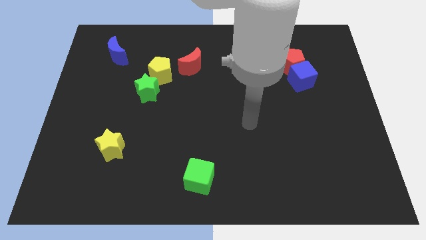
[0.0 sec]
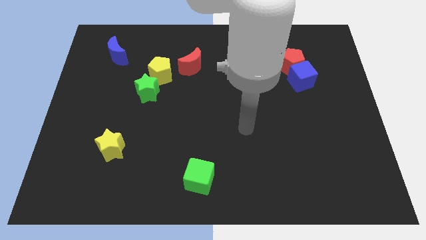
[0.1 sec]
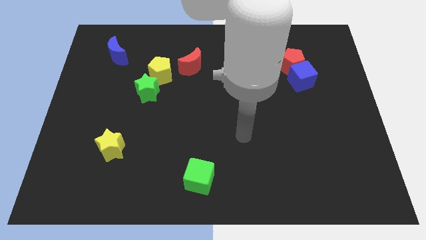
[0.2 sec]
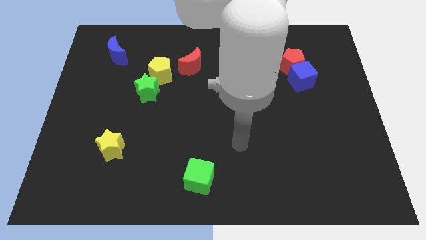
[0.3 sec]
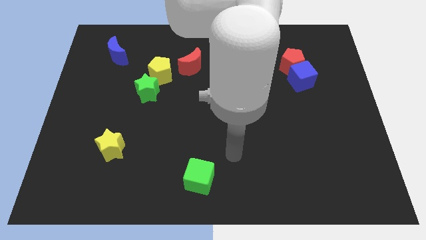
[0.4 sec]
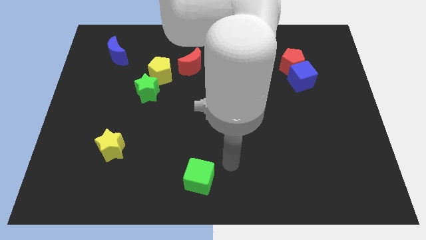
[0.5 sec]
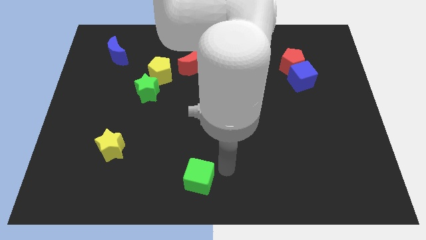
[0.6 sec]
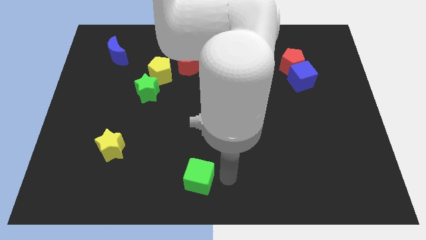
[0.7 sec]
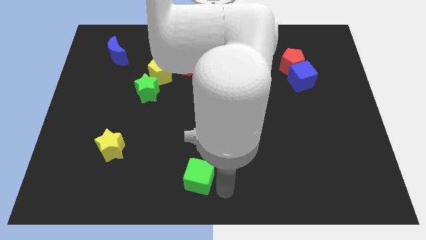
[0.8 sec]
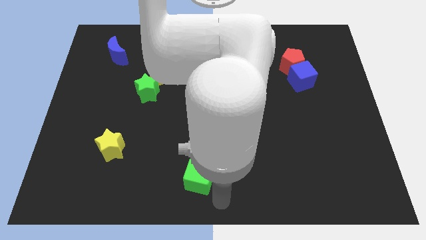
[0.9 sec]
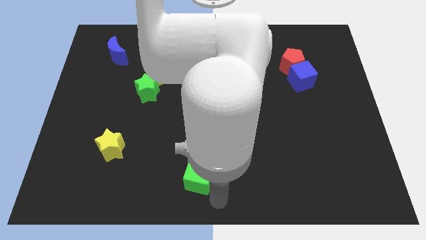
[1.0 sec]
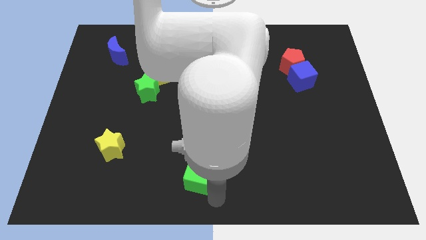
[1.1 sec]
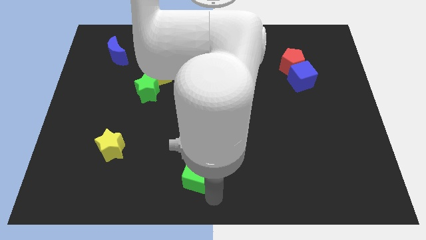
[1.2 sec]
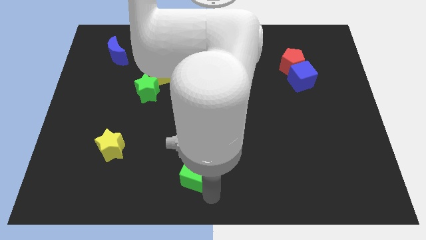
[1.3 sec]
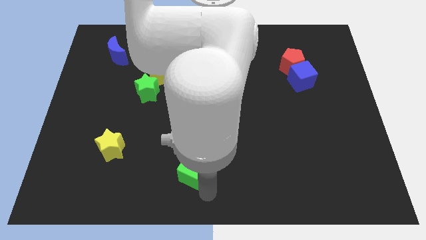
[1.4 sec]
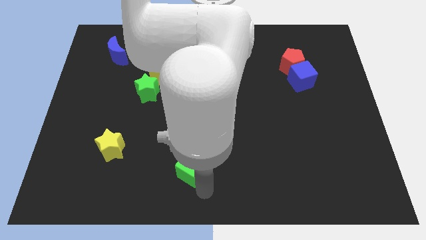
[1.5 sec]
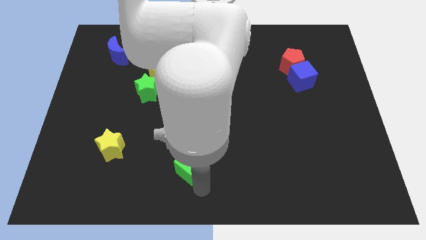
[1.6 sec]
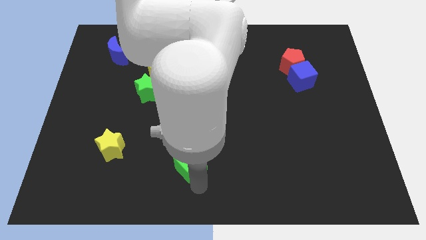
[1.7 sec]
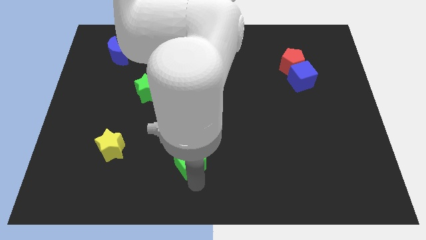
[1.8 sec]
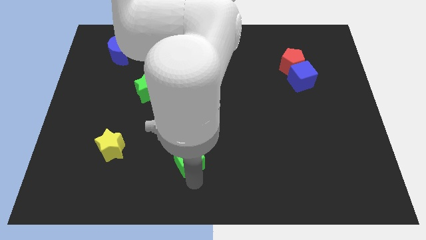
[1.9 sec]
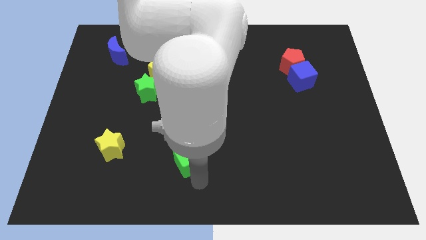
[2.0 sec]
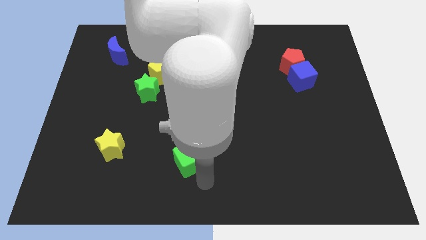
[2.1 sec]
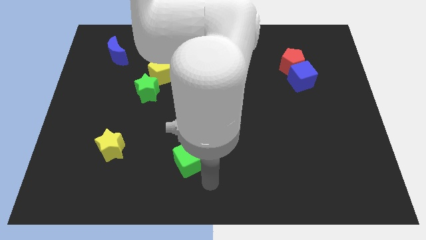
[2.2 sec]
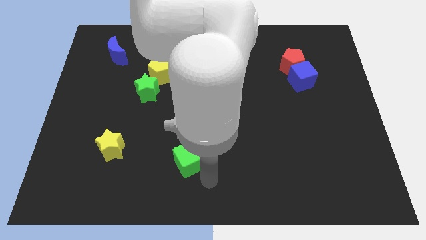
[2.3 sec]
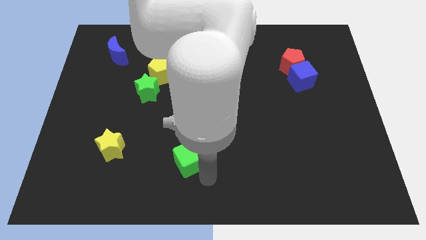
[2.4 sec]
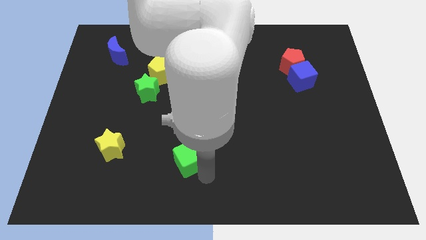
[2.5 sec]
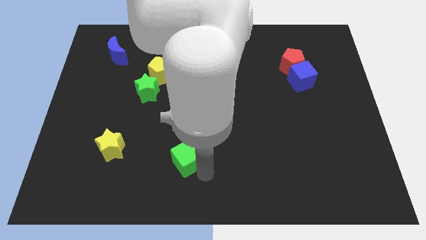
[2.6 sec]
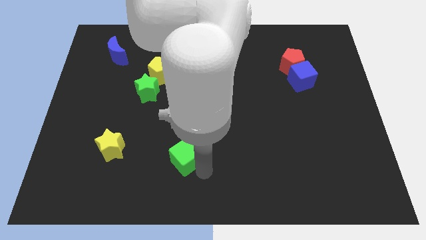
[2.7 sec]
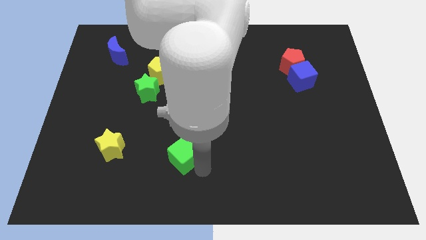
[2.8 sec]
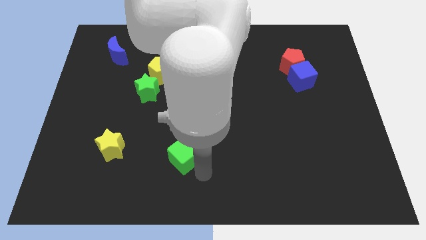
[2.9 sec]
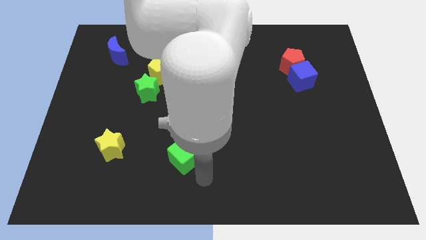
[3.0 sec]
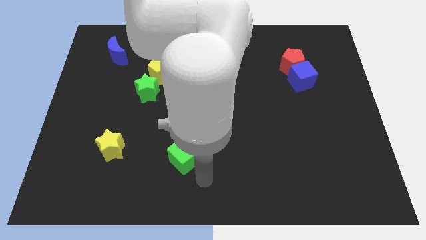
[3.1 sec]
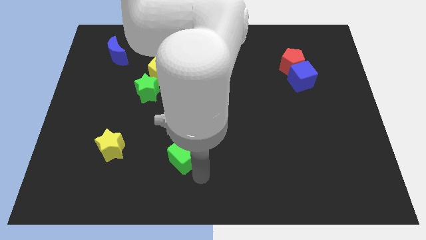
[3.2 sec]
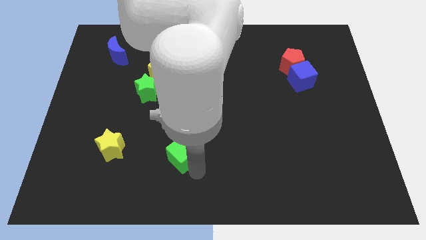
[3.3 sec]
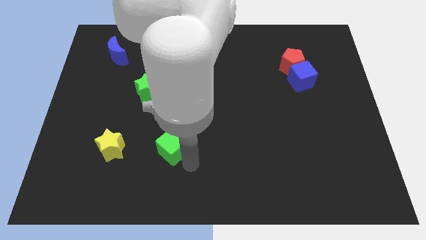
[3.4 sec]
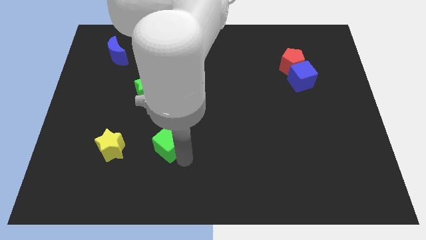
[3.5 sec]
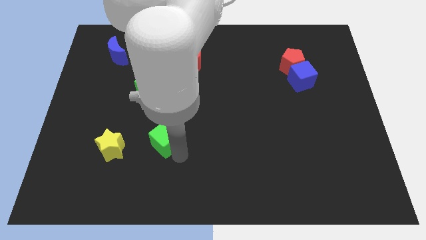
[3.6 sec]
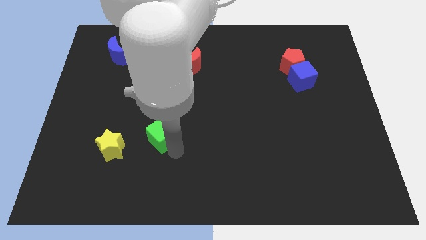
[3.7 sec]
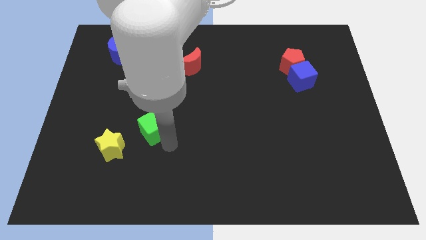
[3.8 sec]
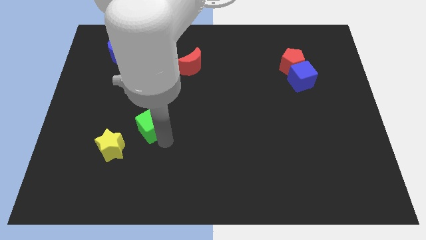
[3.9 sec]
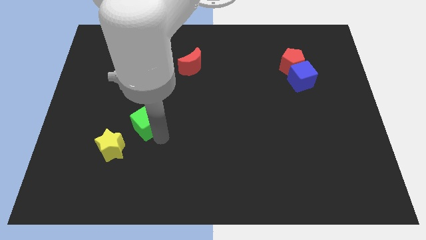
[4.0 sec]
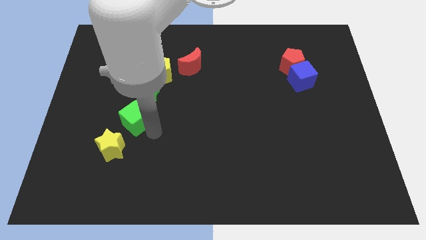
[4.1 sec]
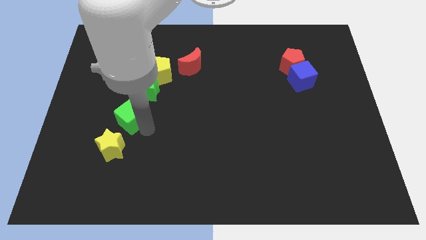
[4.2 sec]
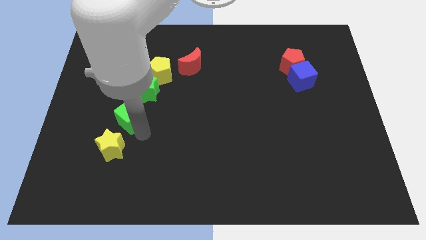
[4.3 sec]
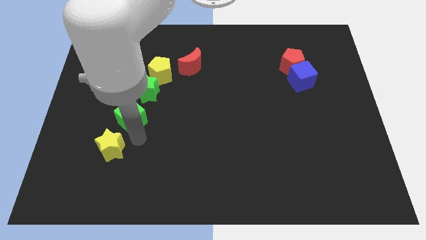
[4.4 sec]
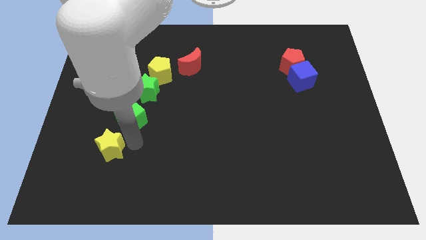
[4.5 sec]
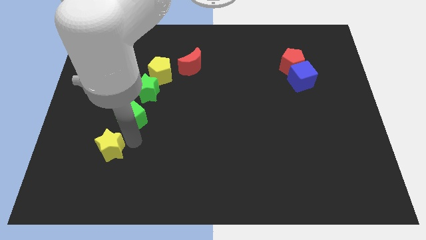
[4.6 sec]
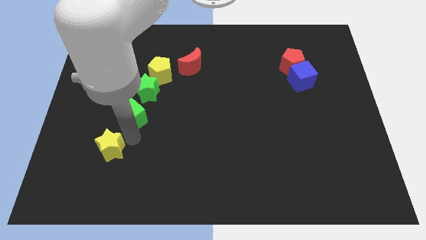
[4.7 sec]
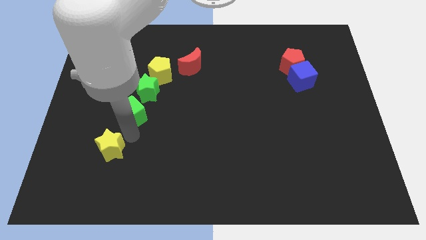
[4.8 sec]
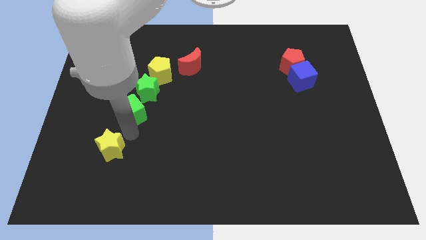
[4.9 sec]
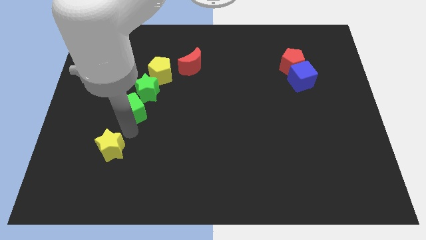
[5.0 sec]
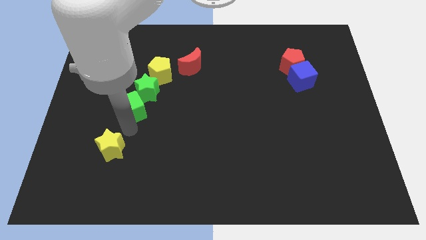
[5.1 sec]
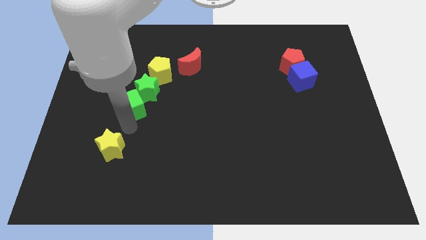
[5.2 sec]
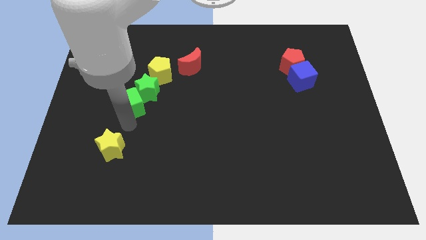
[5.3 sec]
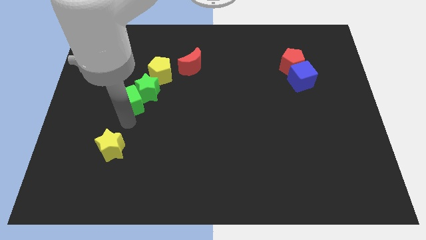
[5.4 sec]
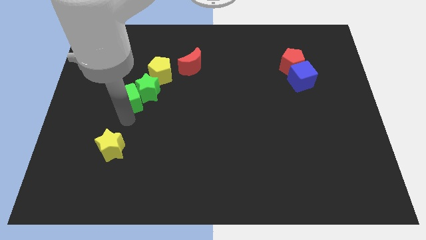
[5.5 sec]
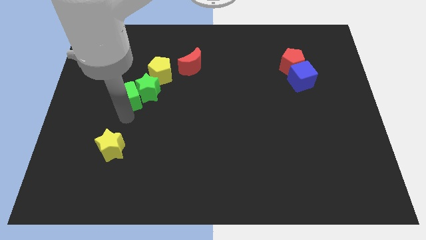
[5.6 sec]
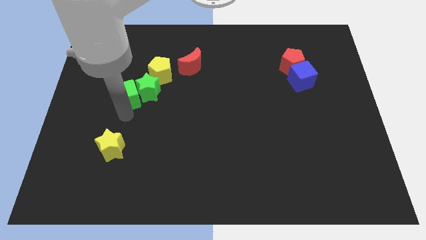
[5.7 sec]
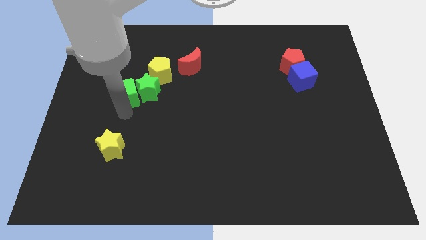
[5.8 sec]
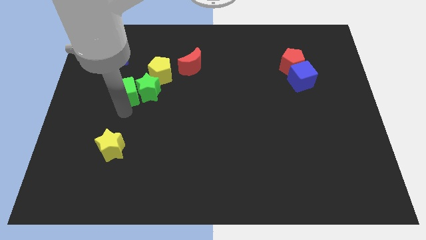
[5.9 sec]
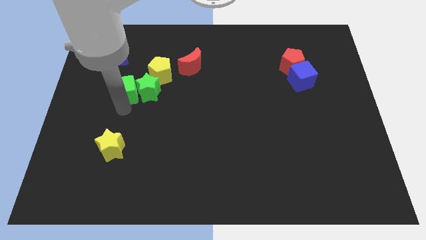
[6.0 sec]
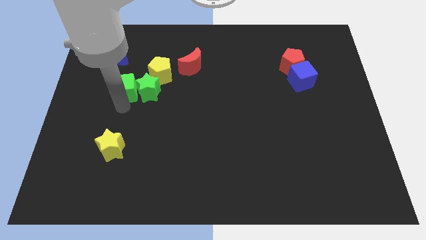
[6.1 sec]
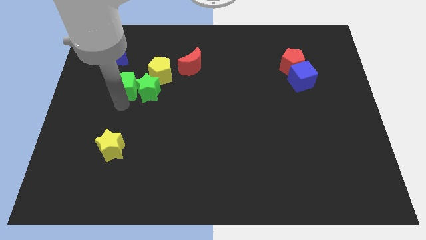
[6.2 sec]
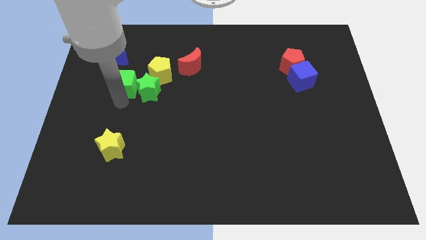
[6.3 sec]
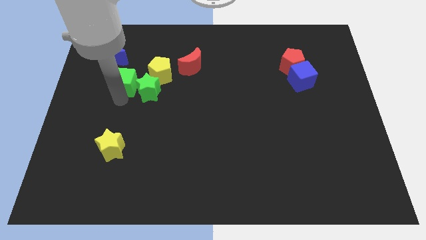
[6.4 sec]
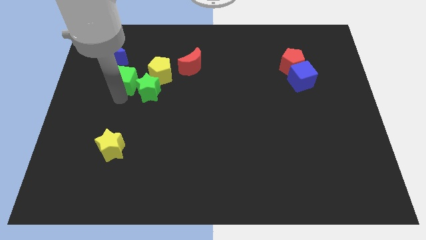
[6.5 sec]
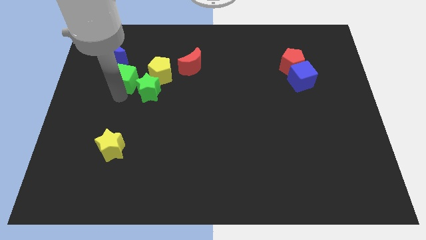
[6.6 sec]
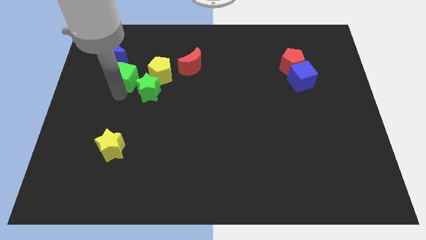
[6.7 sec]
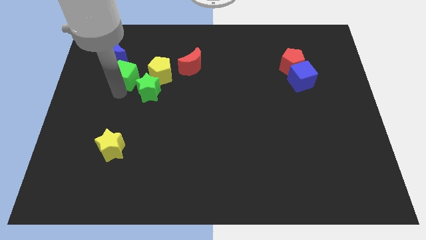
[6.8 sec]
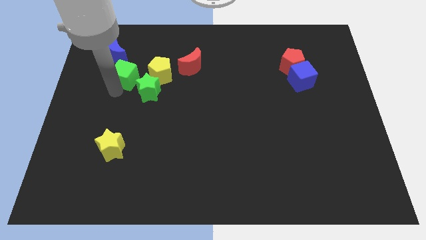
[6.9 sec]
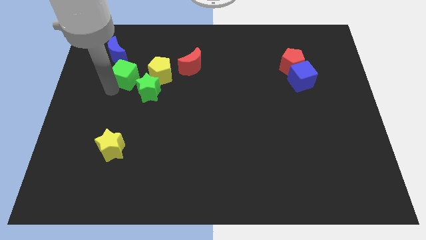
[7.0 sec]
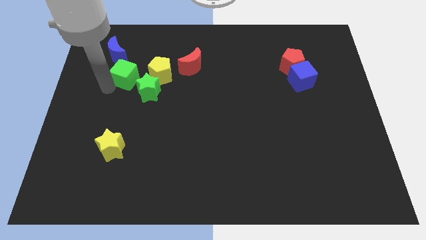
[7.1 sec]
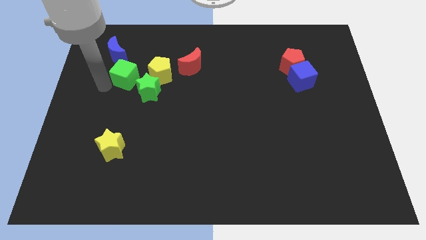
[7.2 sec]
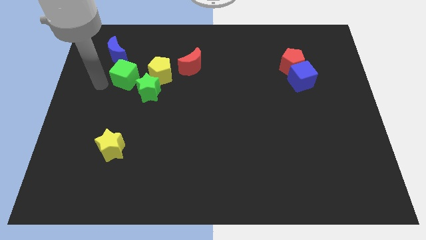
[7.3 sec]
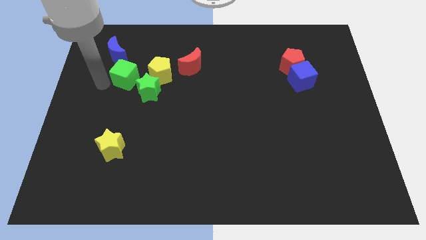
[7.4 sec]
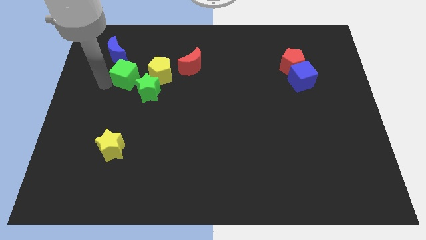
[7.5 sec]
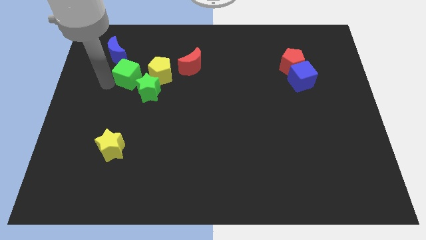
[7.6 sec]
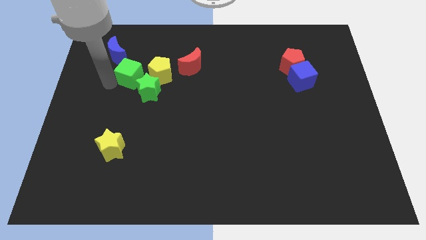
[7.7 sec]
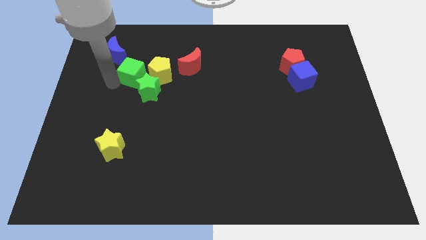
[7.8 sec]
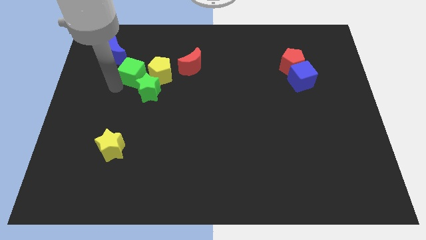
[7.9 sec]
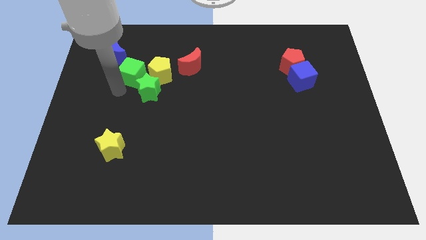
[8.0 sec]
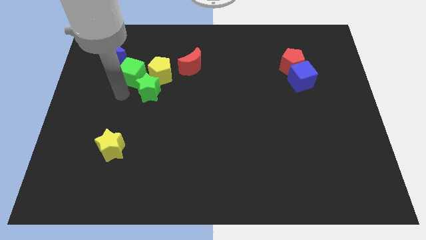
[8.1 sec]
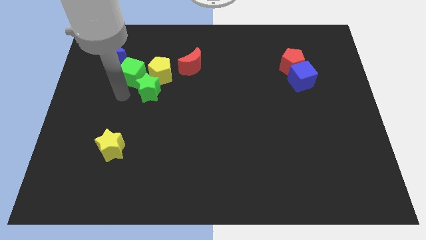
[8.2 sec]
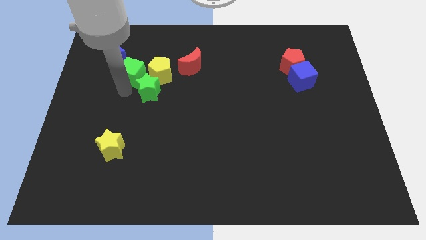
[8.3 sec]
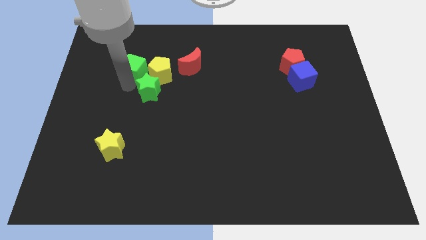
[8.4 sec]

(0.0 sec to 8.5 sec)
move the green cube to the top left side of the yellow pentagon
